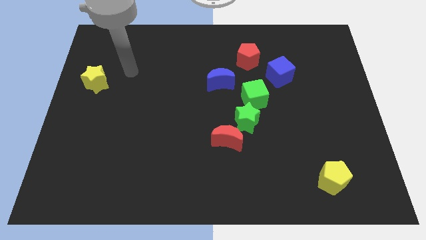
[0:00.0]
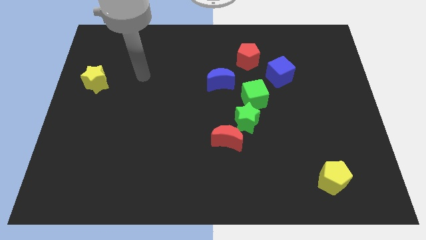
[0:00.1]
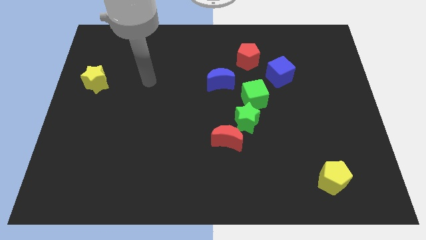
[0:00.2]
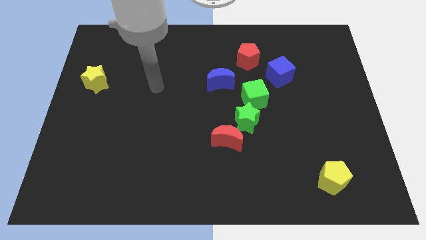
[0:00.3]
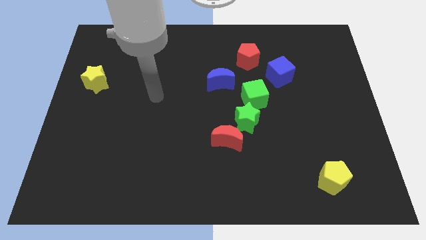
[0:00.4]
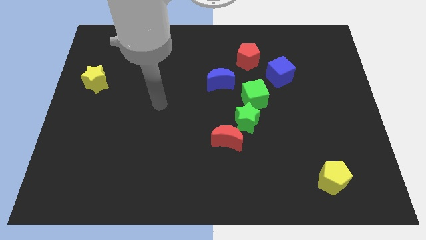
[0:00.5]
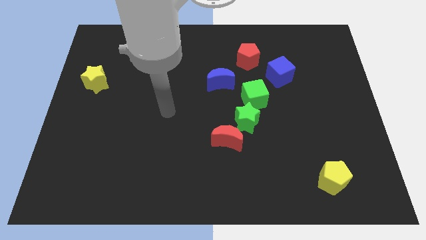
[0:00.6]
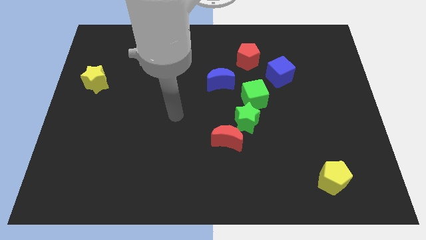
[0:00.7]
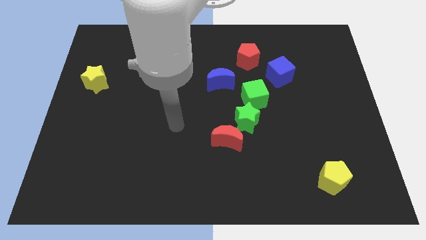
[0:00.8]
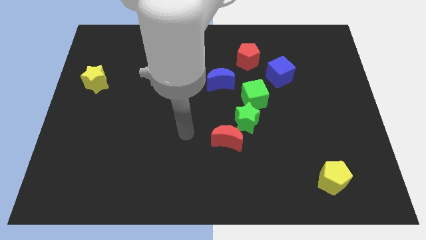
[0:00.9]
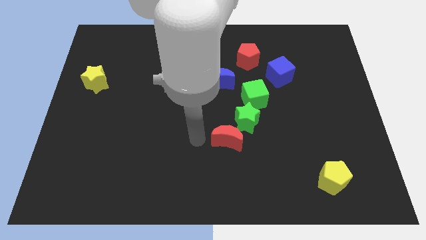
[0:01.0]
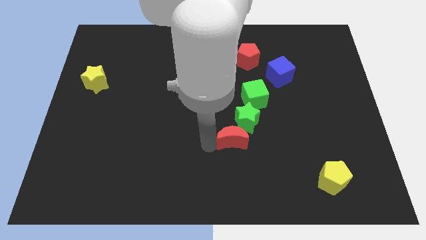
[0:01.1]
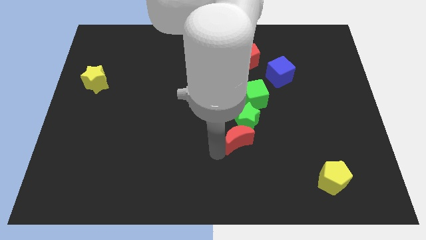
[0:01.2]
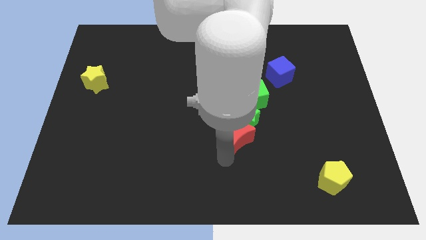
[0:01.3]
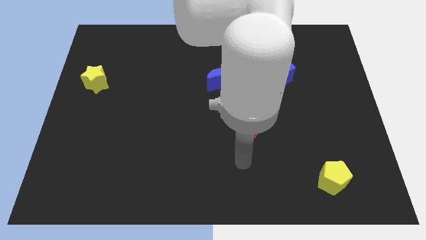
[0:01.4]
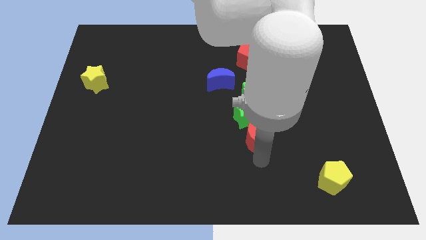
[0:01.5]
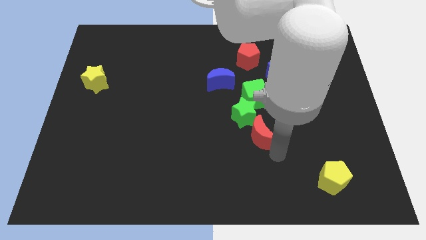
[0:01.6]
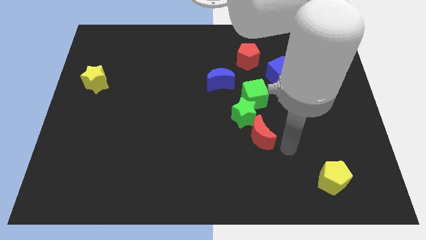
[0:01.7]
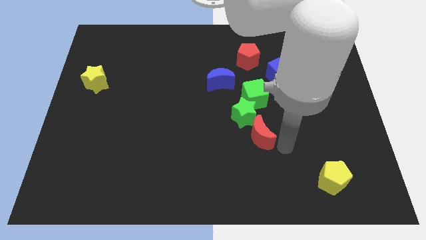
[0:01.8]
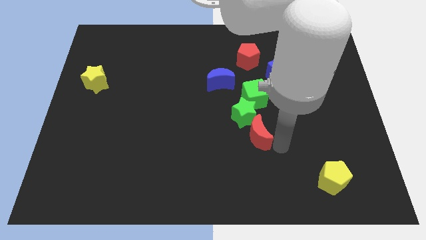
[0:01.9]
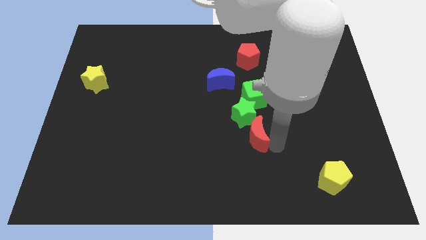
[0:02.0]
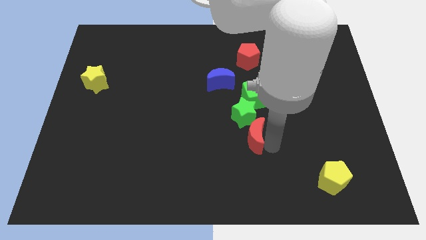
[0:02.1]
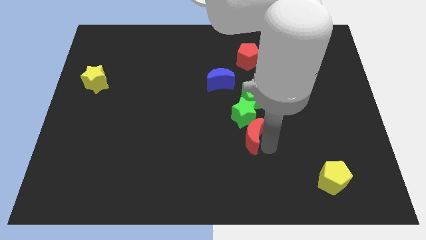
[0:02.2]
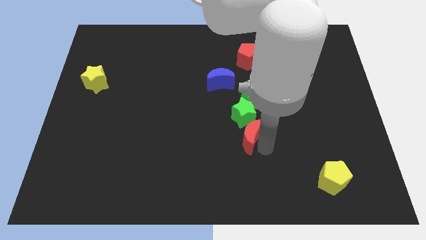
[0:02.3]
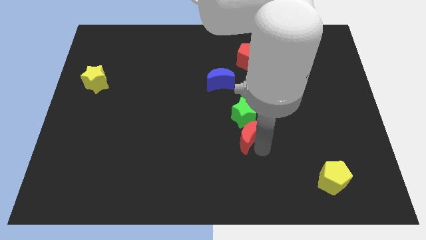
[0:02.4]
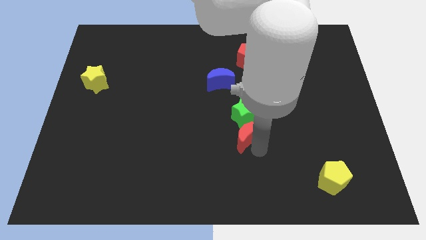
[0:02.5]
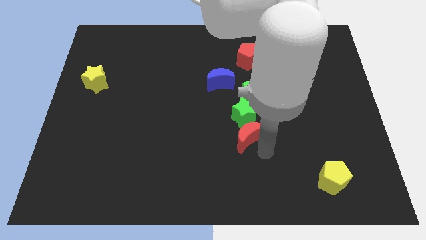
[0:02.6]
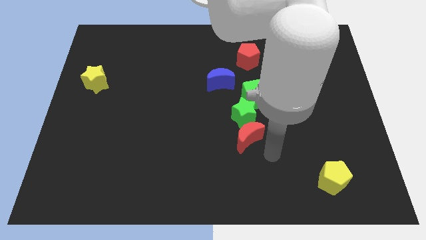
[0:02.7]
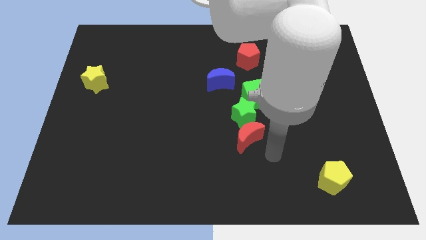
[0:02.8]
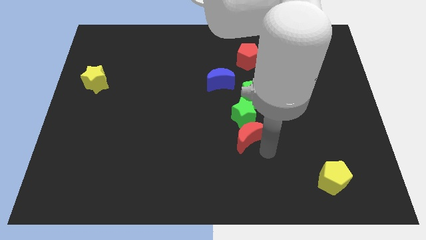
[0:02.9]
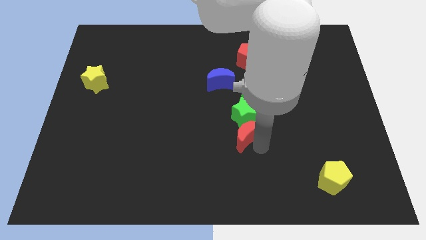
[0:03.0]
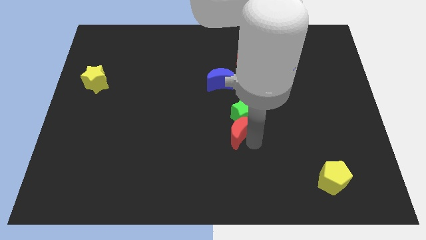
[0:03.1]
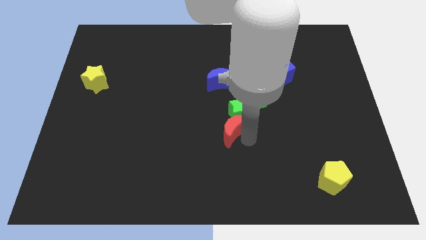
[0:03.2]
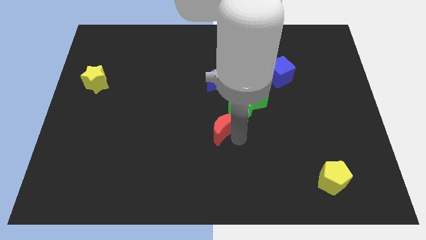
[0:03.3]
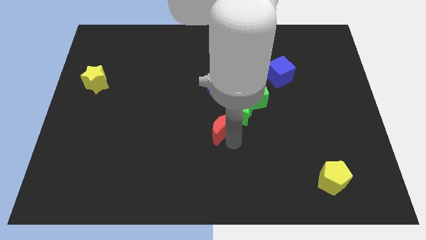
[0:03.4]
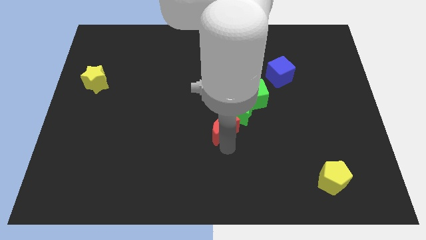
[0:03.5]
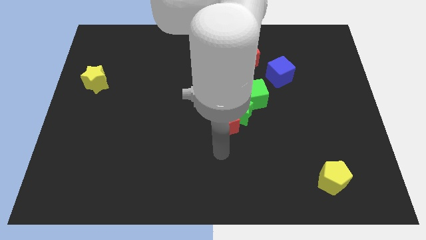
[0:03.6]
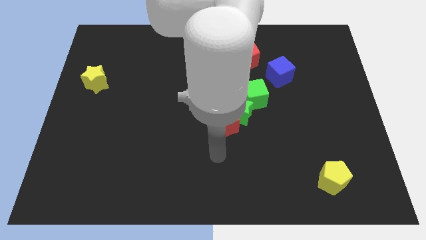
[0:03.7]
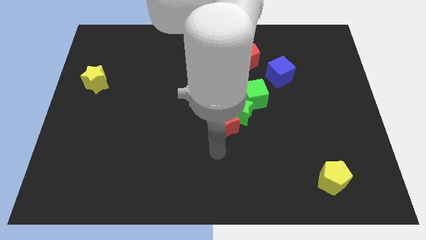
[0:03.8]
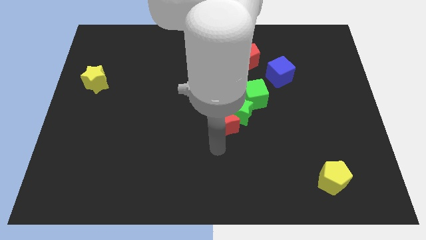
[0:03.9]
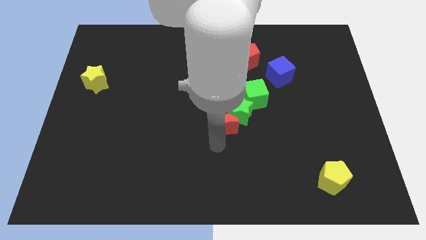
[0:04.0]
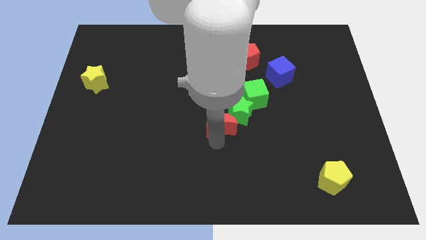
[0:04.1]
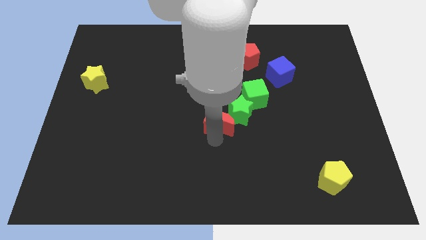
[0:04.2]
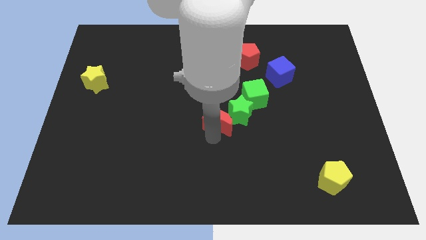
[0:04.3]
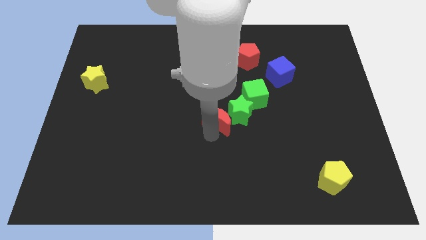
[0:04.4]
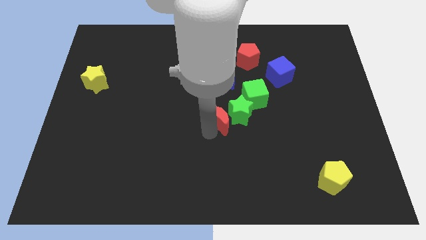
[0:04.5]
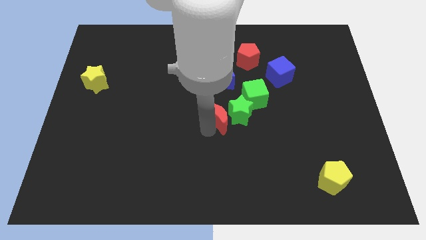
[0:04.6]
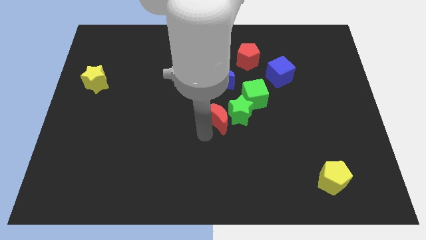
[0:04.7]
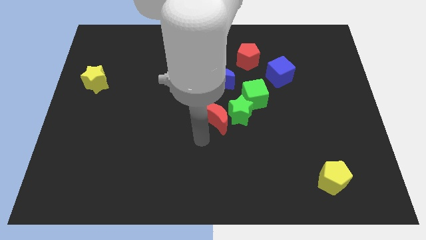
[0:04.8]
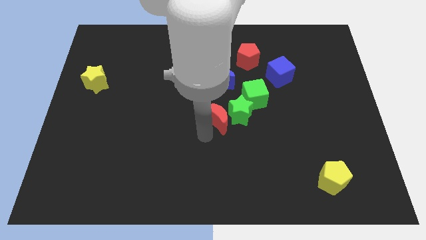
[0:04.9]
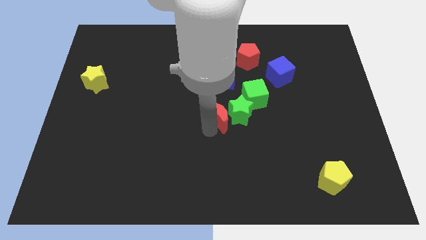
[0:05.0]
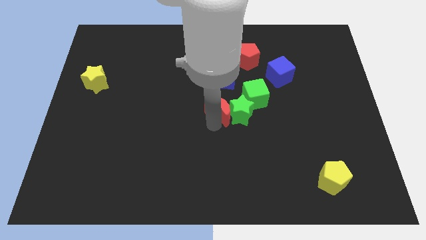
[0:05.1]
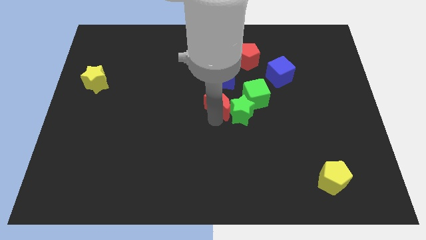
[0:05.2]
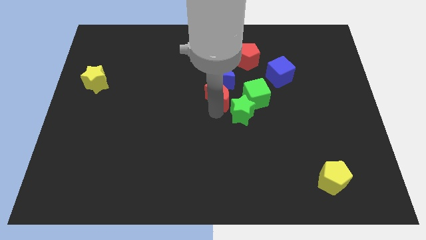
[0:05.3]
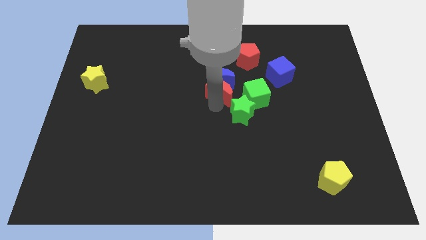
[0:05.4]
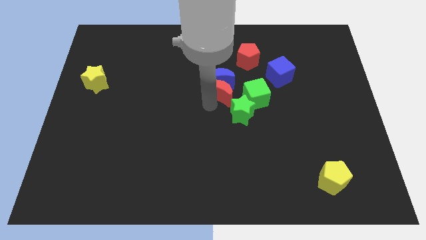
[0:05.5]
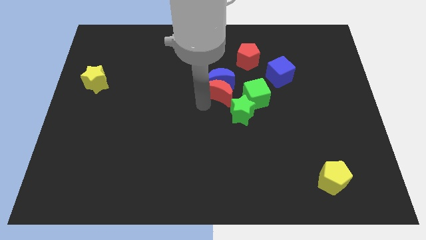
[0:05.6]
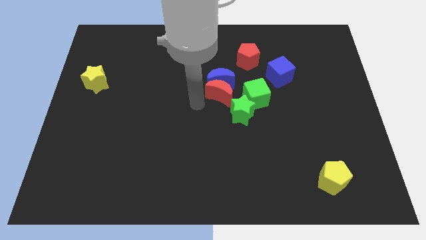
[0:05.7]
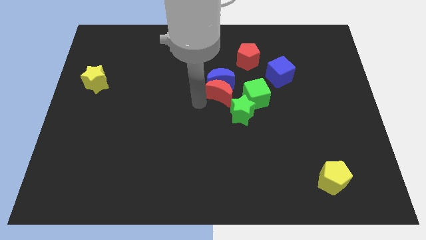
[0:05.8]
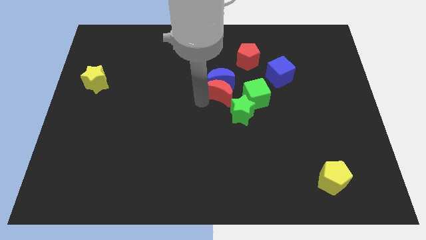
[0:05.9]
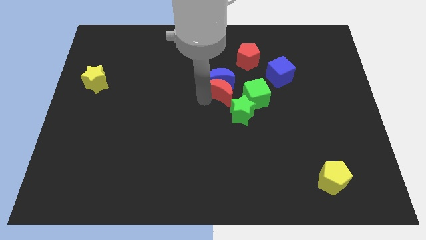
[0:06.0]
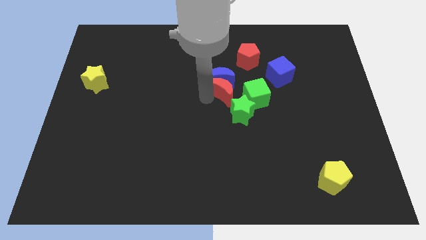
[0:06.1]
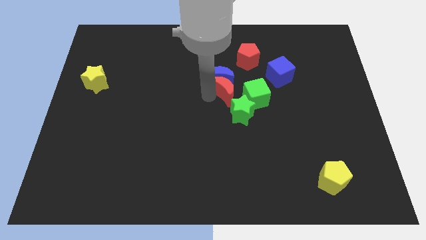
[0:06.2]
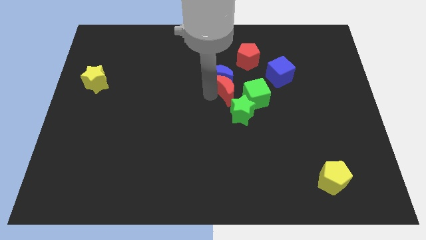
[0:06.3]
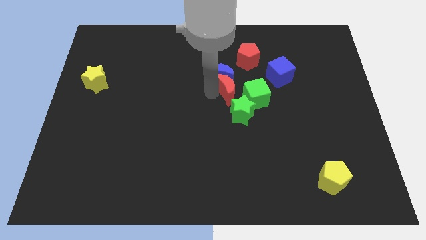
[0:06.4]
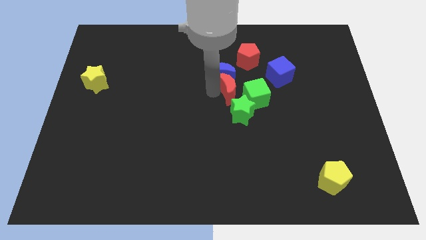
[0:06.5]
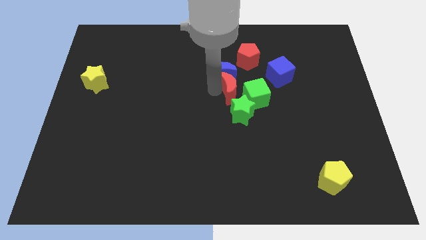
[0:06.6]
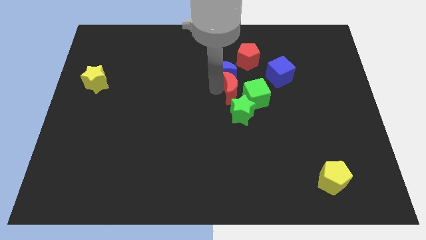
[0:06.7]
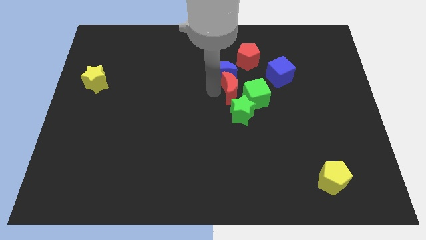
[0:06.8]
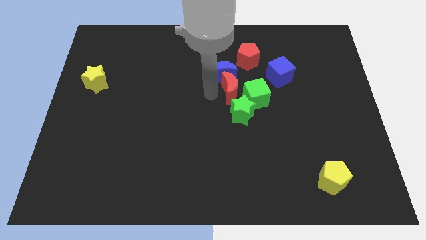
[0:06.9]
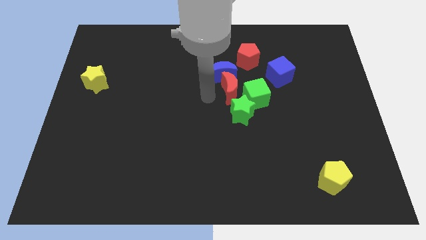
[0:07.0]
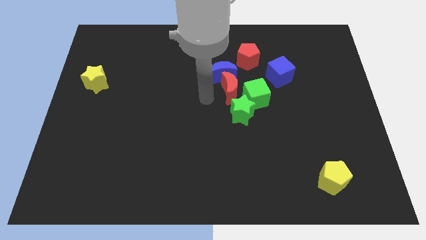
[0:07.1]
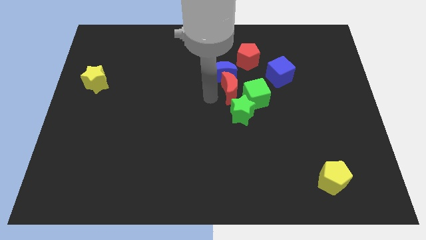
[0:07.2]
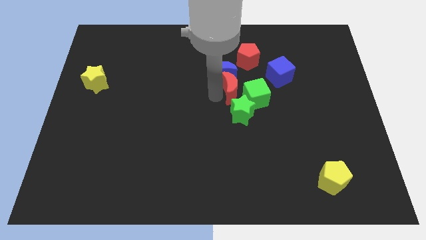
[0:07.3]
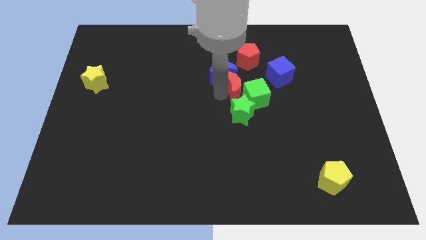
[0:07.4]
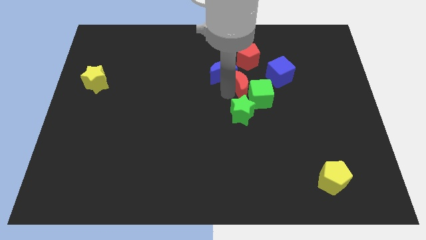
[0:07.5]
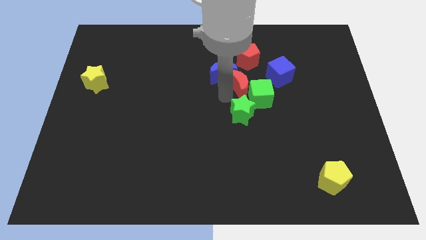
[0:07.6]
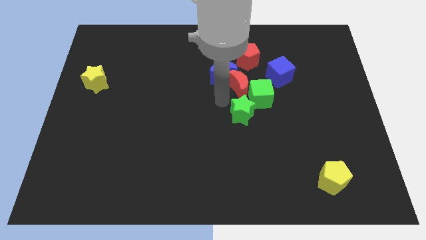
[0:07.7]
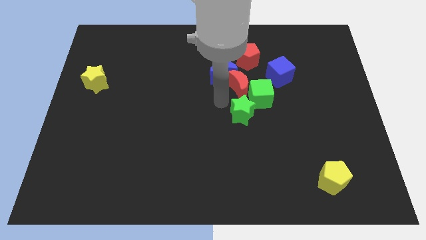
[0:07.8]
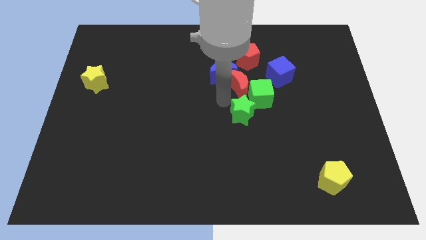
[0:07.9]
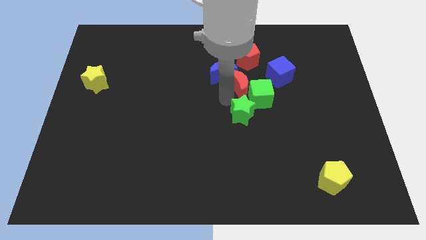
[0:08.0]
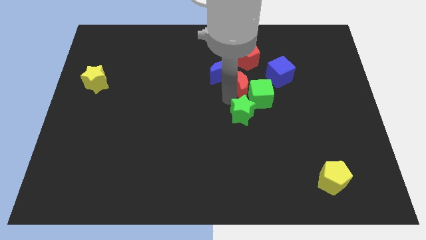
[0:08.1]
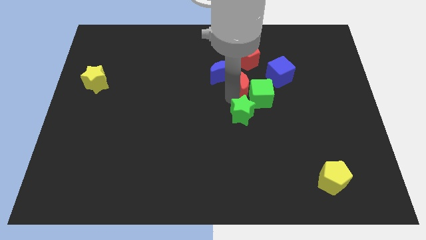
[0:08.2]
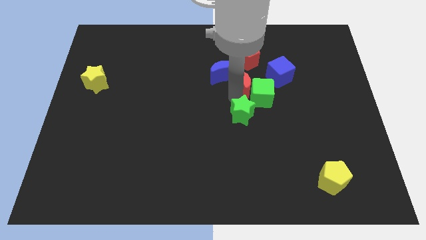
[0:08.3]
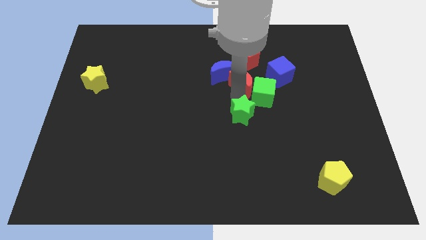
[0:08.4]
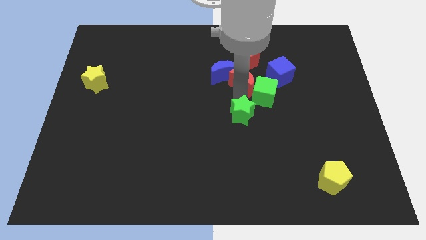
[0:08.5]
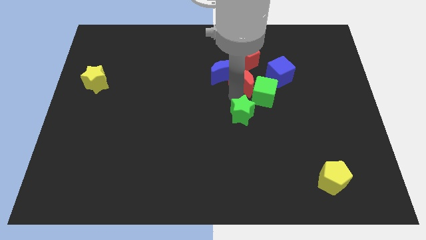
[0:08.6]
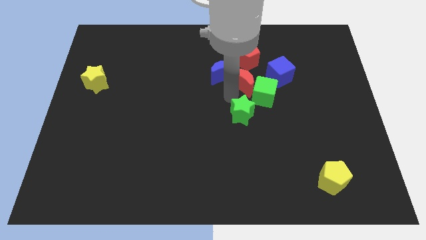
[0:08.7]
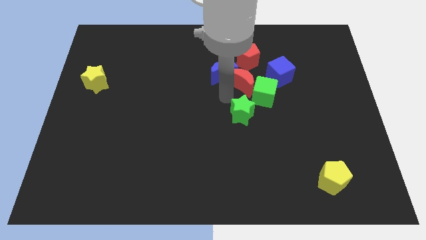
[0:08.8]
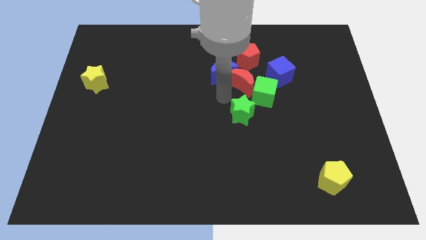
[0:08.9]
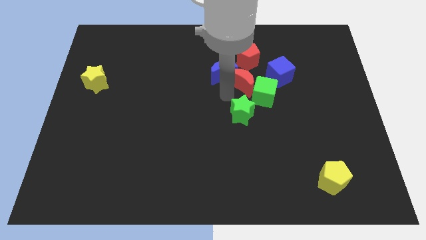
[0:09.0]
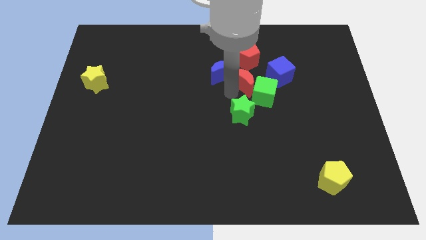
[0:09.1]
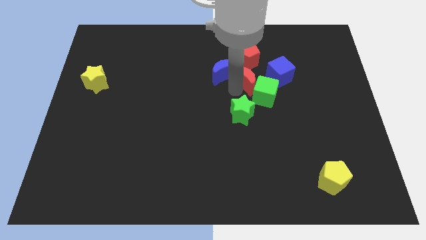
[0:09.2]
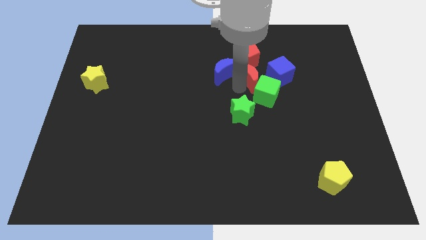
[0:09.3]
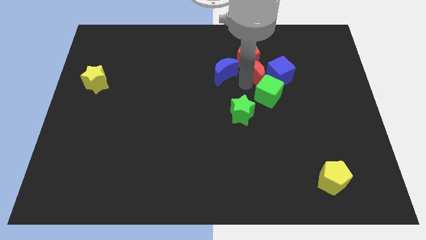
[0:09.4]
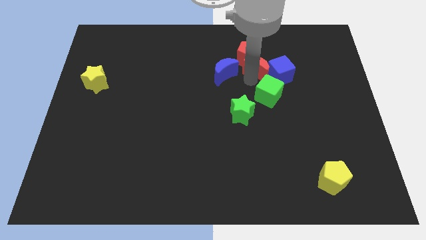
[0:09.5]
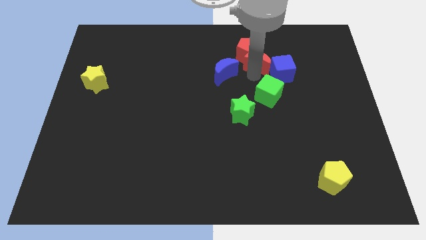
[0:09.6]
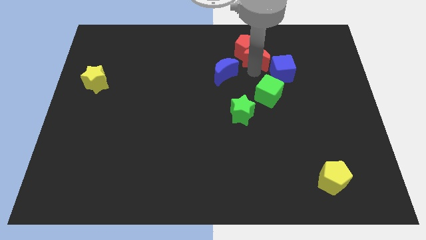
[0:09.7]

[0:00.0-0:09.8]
slide the red moon right of the red pentagon
